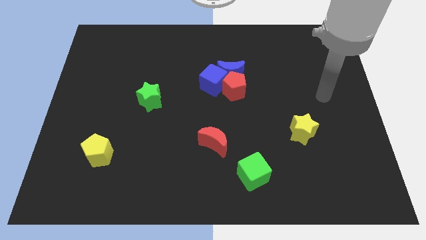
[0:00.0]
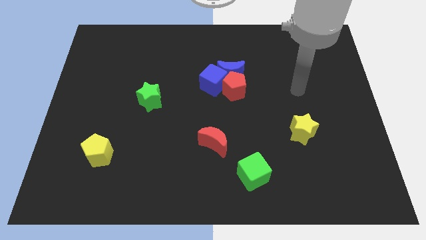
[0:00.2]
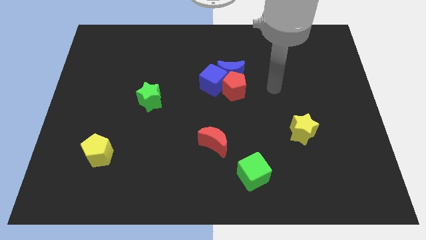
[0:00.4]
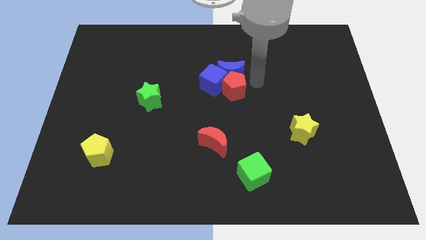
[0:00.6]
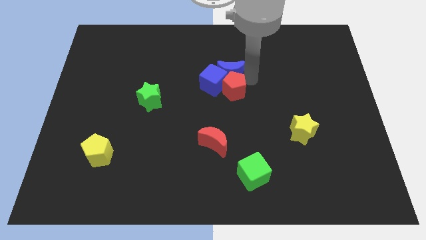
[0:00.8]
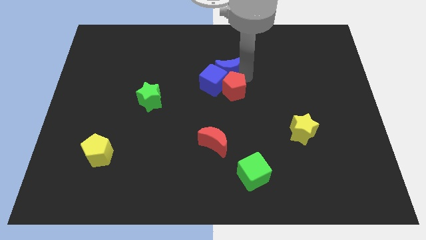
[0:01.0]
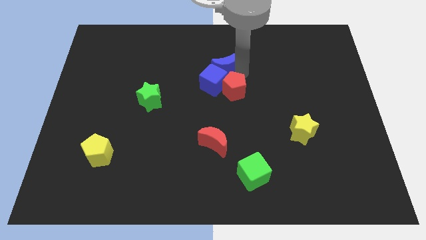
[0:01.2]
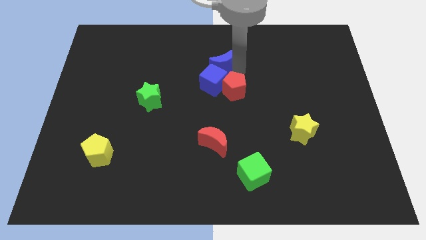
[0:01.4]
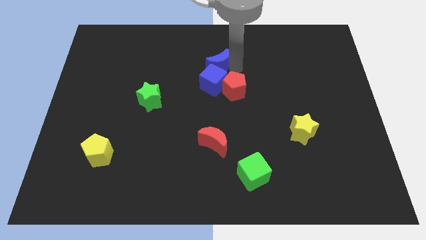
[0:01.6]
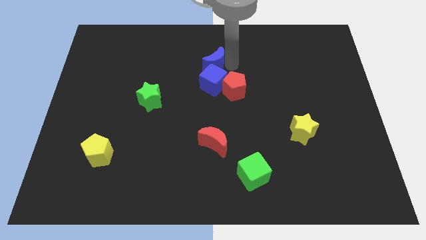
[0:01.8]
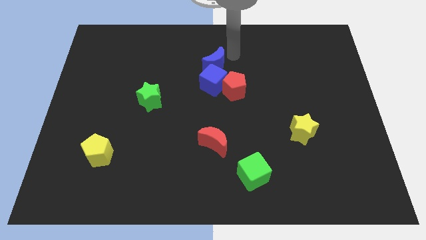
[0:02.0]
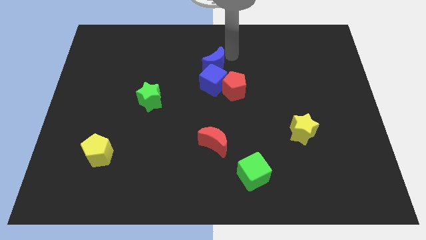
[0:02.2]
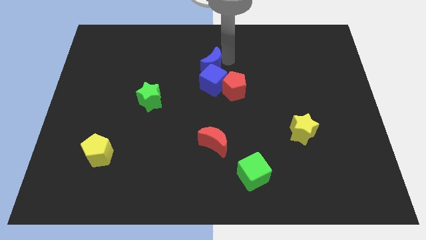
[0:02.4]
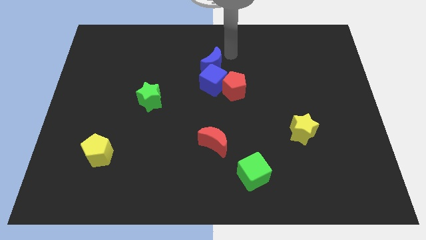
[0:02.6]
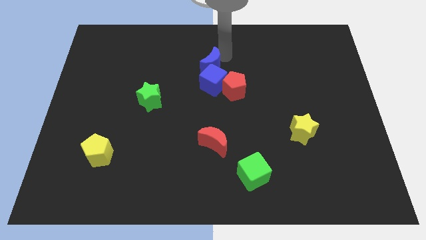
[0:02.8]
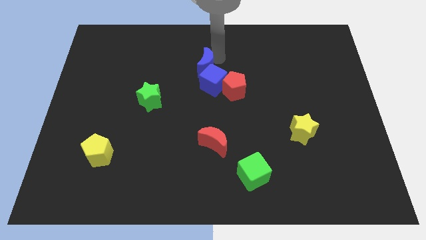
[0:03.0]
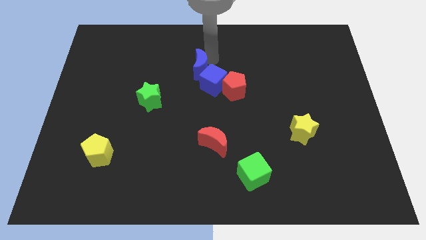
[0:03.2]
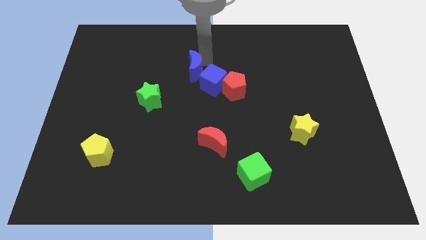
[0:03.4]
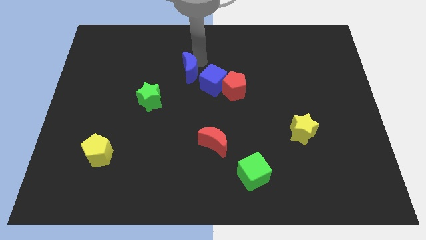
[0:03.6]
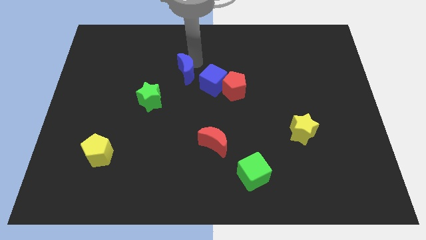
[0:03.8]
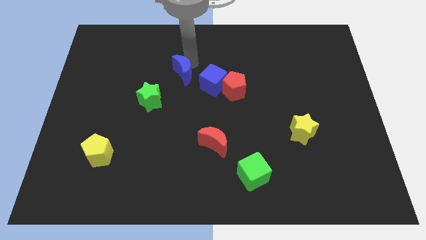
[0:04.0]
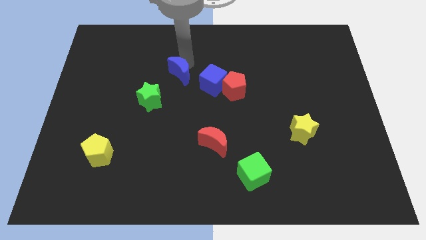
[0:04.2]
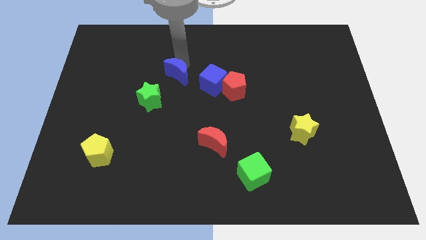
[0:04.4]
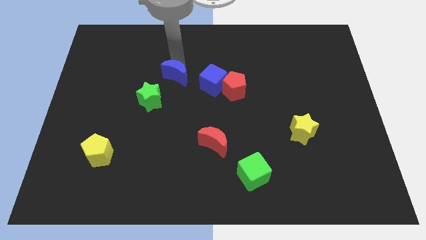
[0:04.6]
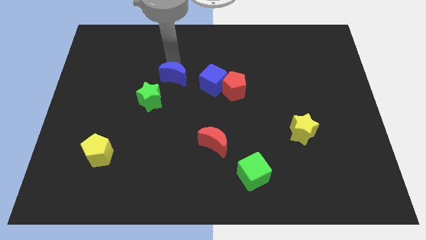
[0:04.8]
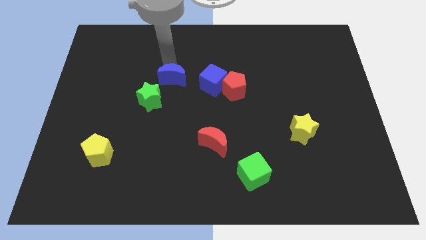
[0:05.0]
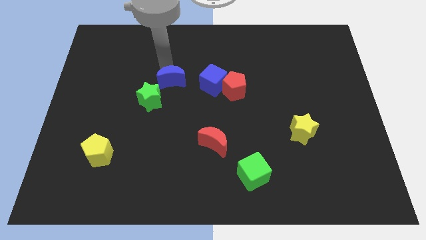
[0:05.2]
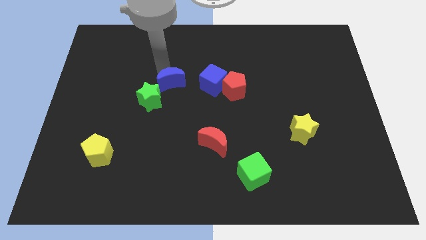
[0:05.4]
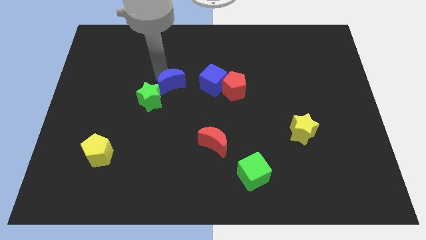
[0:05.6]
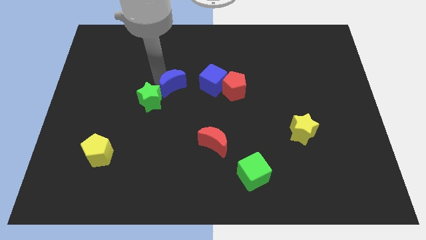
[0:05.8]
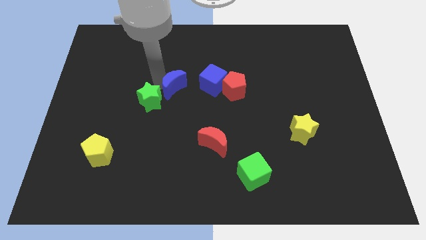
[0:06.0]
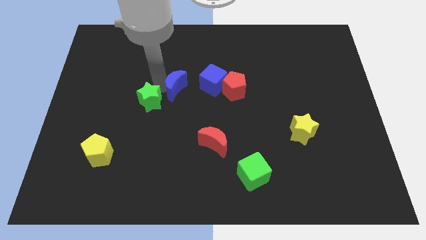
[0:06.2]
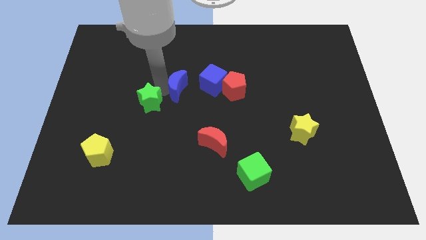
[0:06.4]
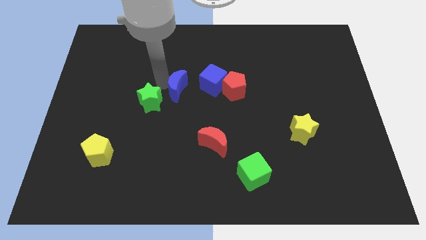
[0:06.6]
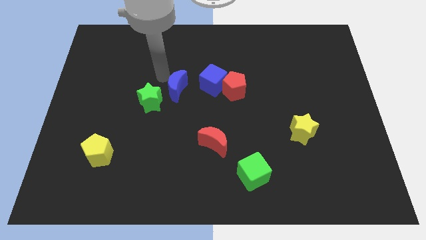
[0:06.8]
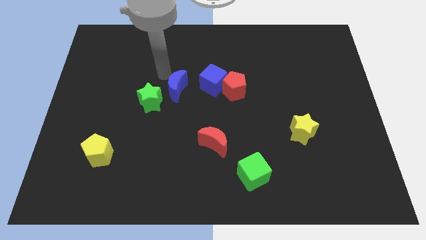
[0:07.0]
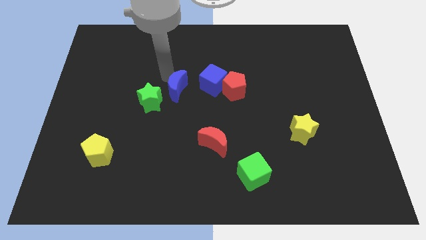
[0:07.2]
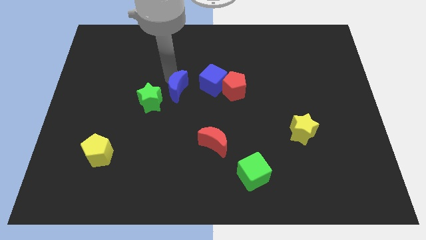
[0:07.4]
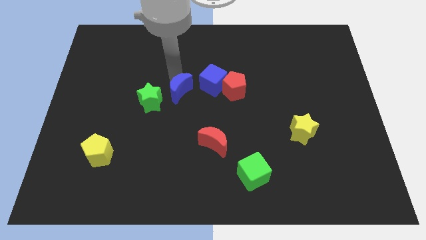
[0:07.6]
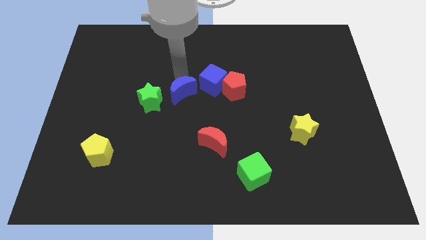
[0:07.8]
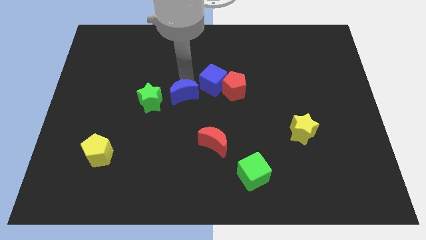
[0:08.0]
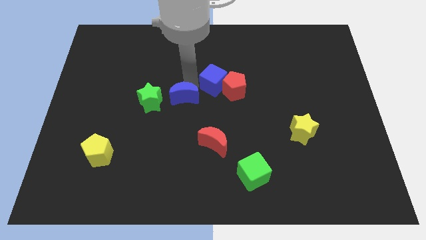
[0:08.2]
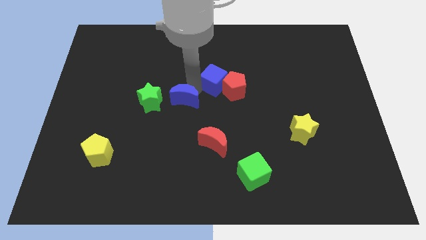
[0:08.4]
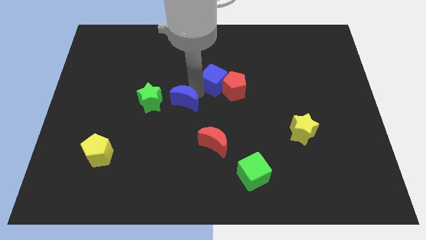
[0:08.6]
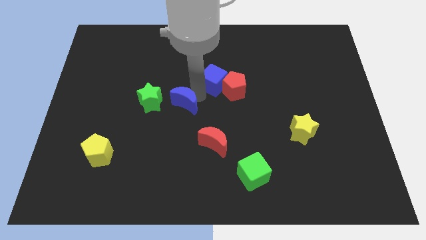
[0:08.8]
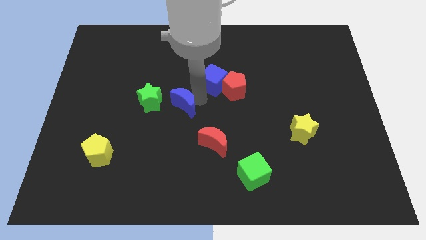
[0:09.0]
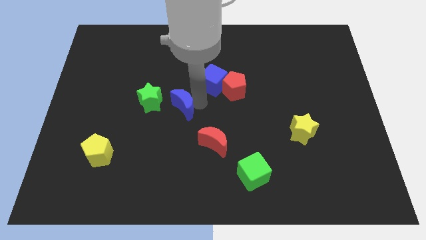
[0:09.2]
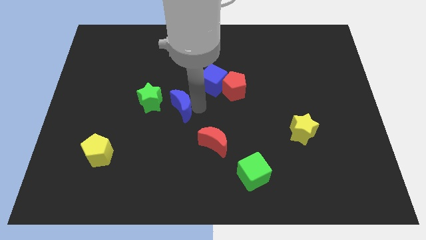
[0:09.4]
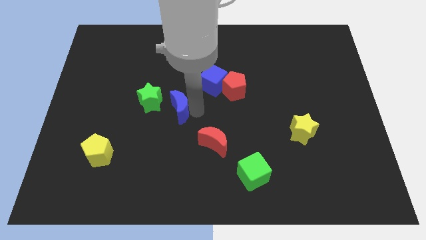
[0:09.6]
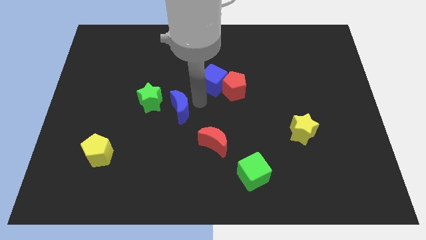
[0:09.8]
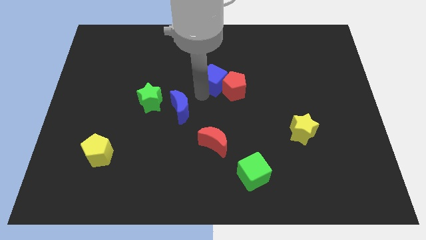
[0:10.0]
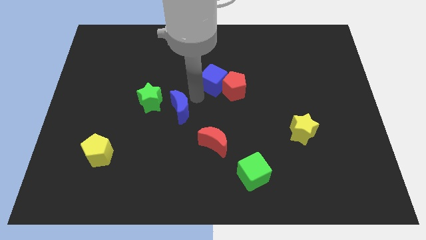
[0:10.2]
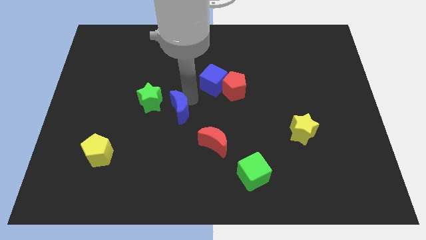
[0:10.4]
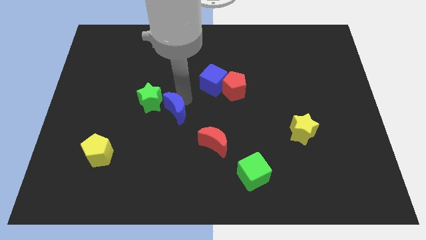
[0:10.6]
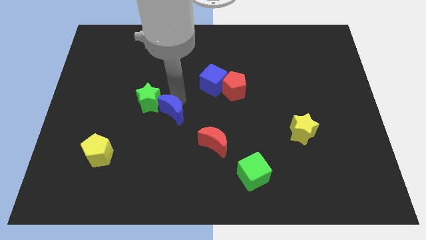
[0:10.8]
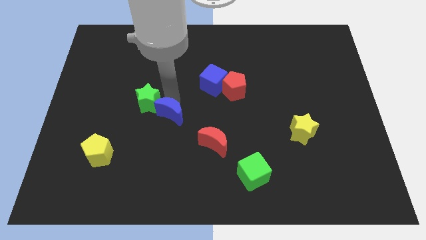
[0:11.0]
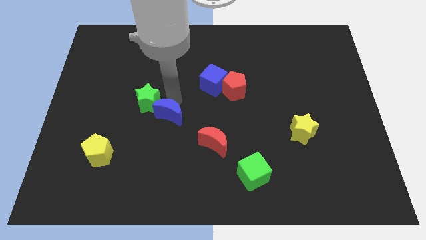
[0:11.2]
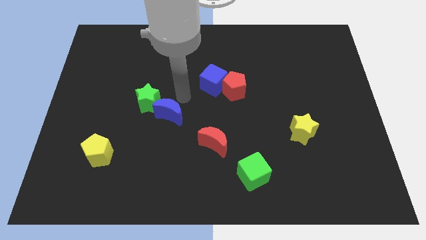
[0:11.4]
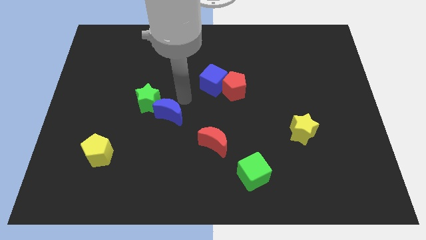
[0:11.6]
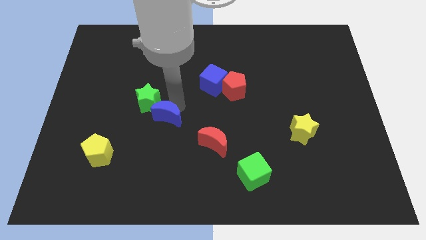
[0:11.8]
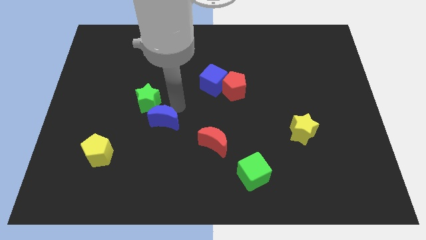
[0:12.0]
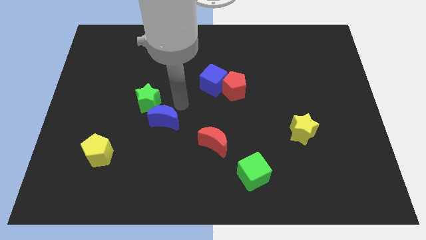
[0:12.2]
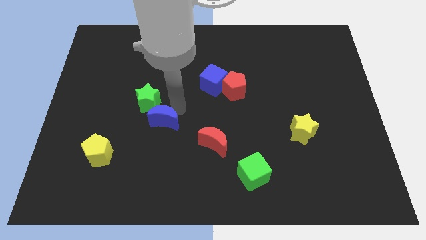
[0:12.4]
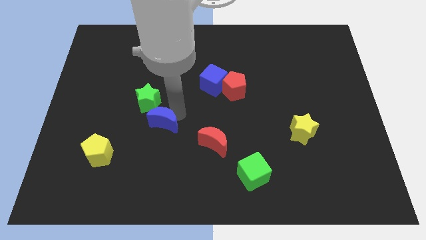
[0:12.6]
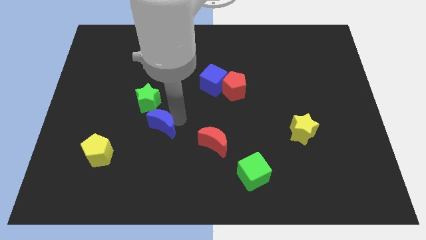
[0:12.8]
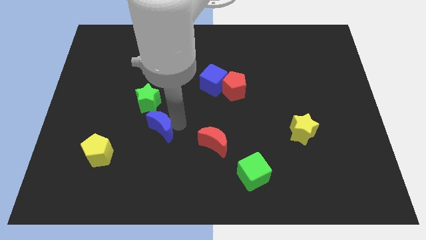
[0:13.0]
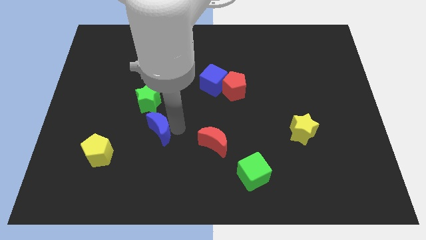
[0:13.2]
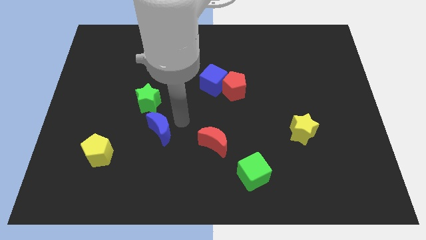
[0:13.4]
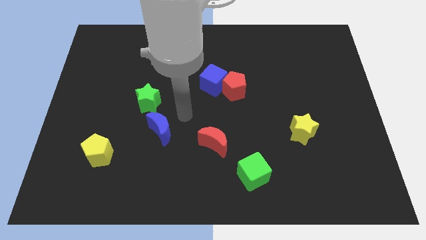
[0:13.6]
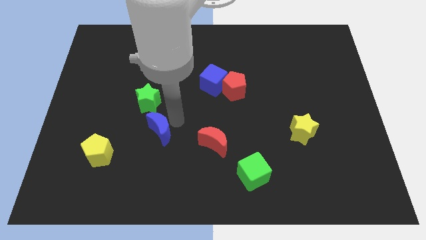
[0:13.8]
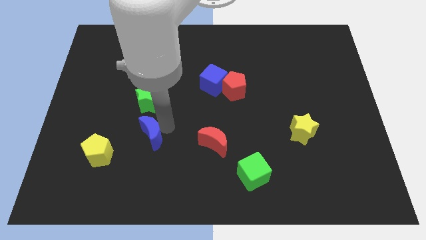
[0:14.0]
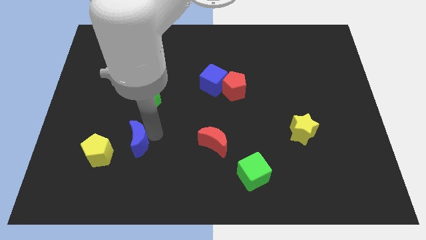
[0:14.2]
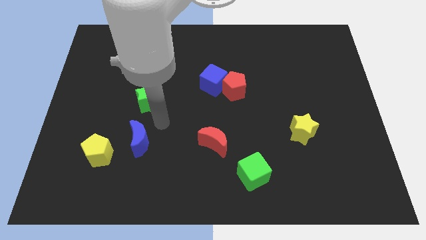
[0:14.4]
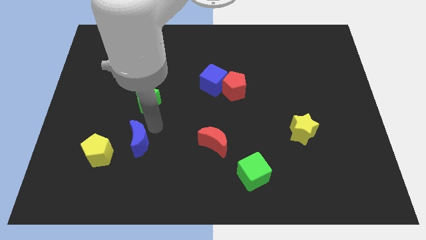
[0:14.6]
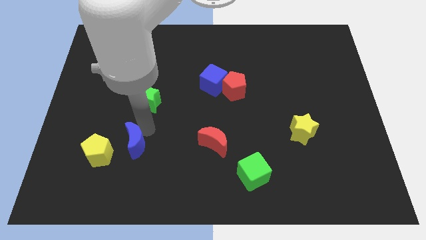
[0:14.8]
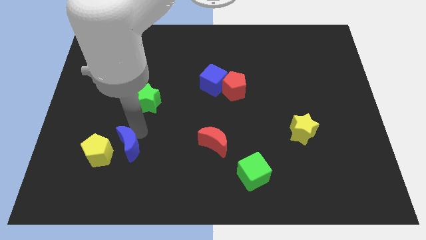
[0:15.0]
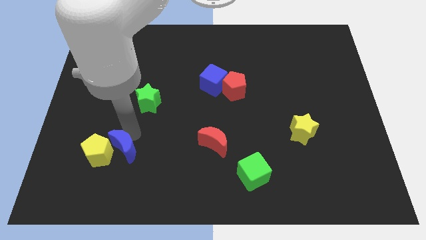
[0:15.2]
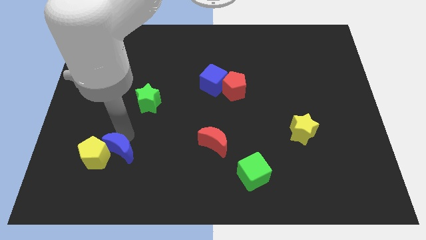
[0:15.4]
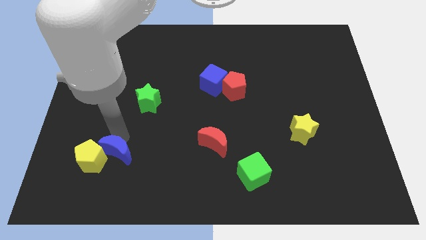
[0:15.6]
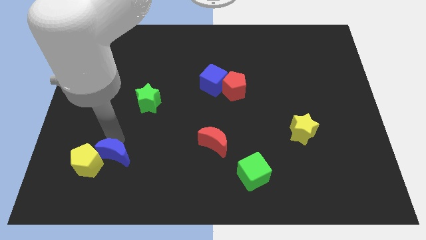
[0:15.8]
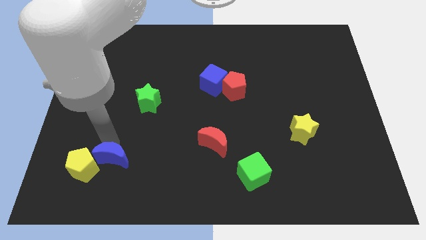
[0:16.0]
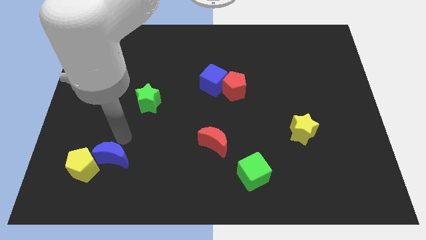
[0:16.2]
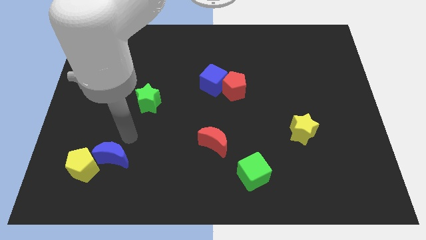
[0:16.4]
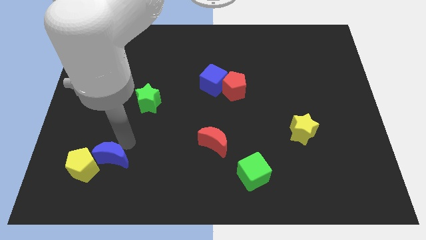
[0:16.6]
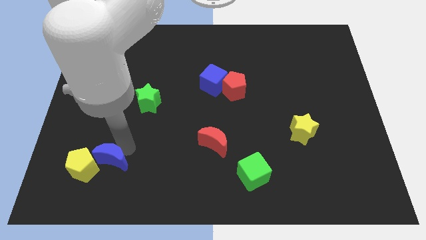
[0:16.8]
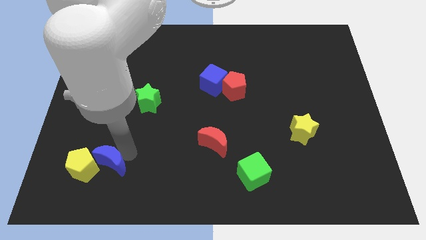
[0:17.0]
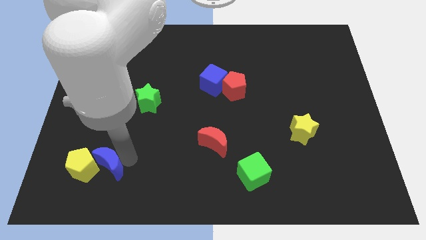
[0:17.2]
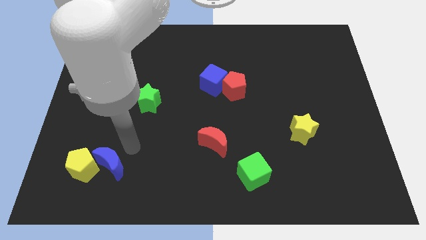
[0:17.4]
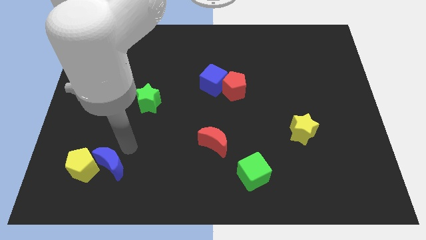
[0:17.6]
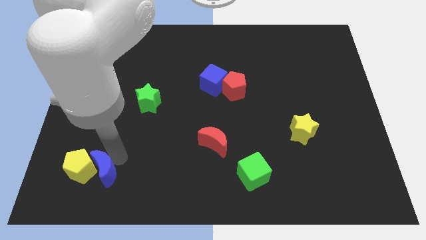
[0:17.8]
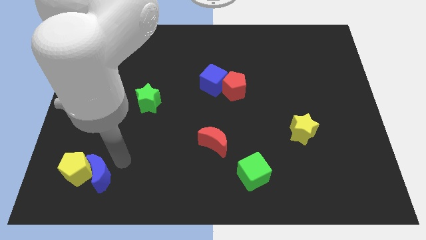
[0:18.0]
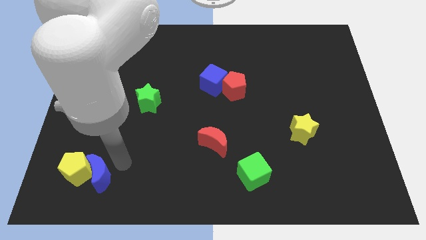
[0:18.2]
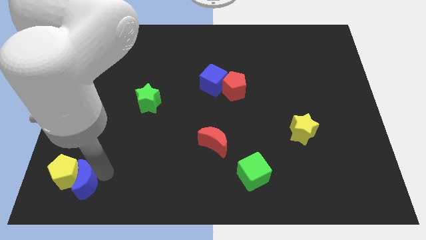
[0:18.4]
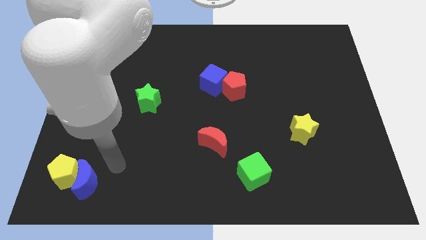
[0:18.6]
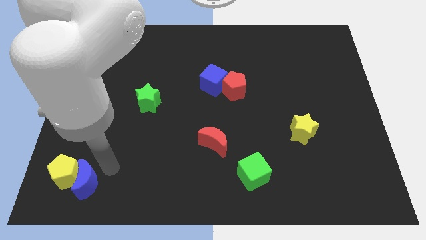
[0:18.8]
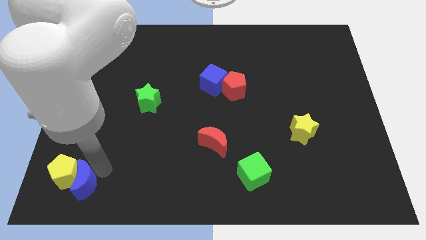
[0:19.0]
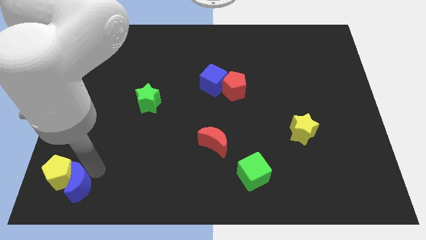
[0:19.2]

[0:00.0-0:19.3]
push the blue moon to the bottom left
